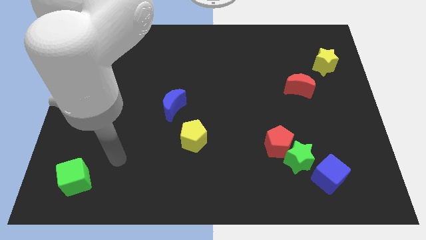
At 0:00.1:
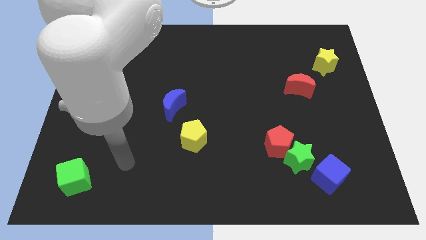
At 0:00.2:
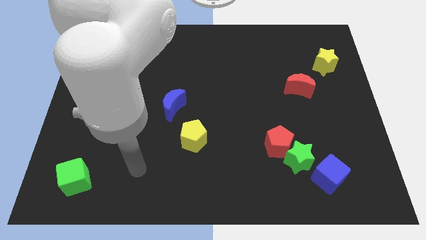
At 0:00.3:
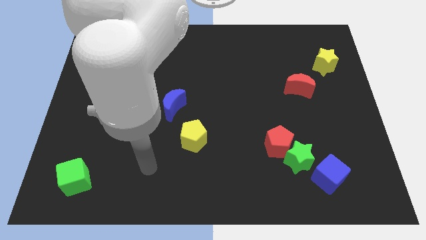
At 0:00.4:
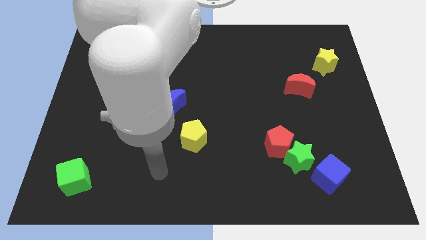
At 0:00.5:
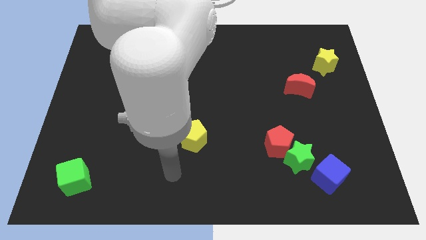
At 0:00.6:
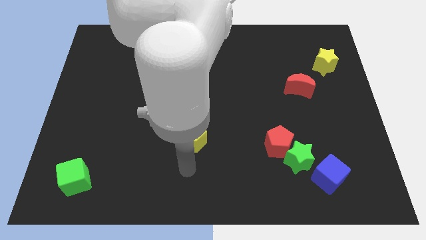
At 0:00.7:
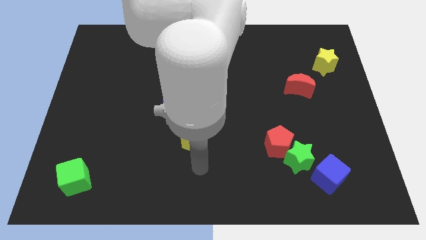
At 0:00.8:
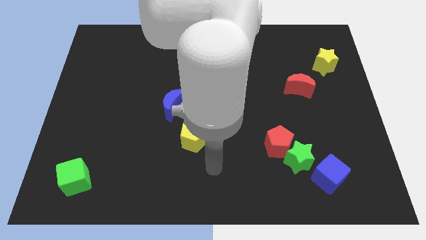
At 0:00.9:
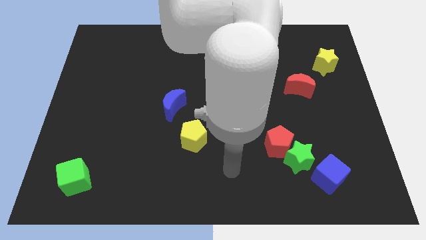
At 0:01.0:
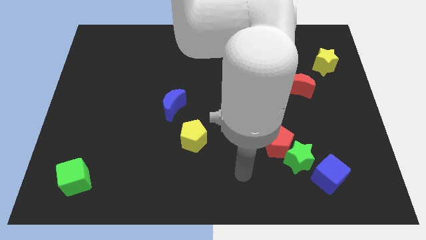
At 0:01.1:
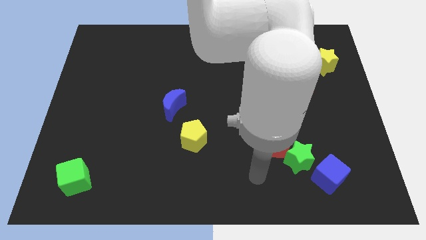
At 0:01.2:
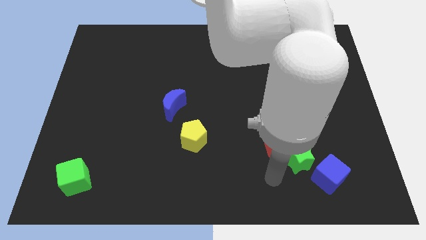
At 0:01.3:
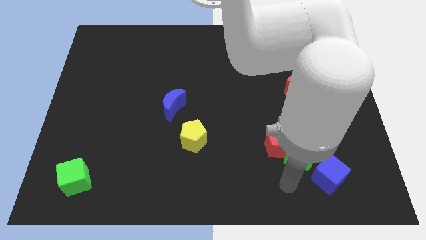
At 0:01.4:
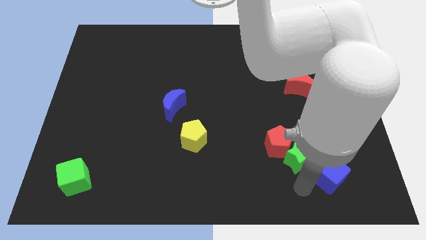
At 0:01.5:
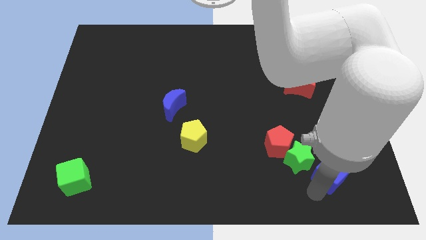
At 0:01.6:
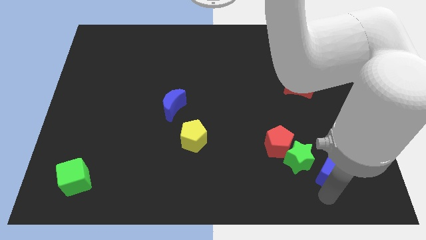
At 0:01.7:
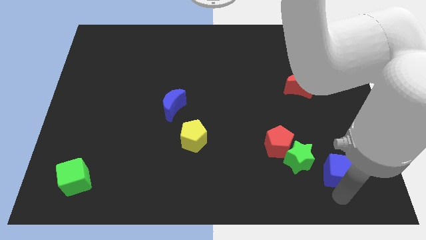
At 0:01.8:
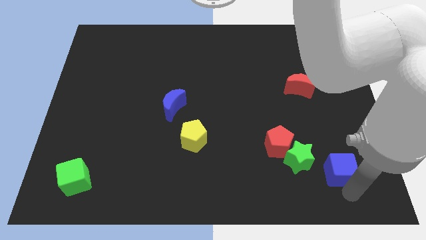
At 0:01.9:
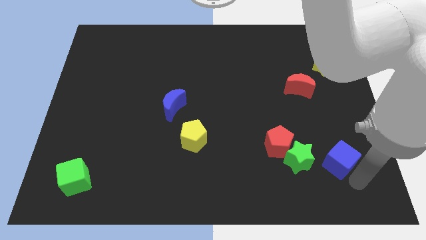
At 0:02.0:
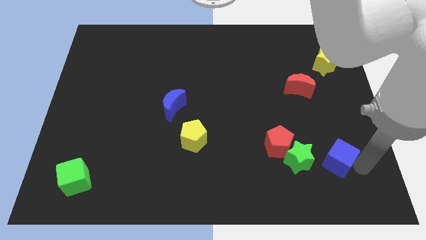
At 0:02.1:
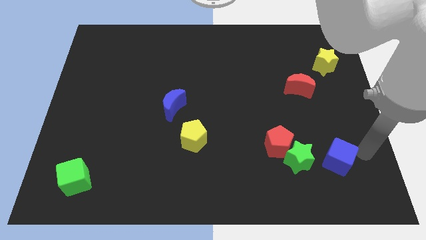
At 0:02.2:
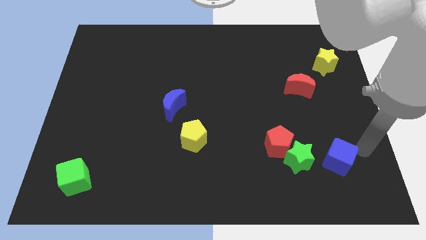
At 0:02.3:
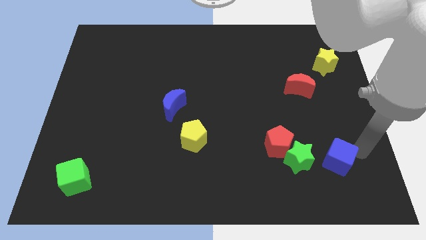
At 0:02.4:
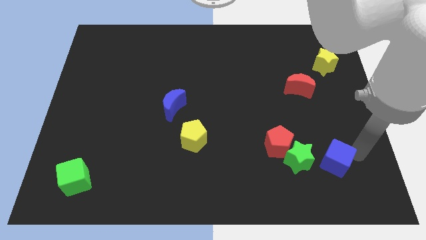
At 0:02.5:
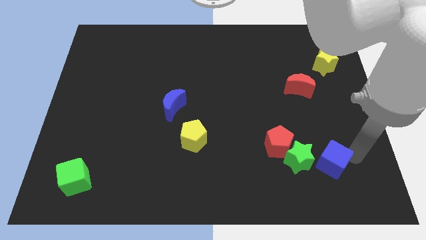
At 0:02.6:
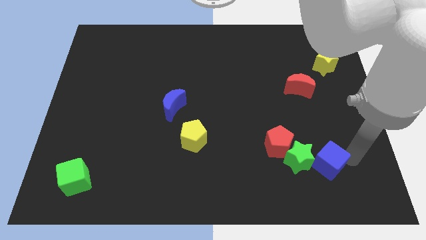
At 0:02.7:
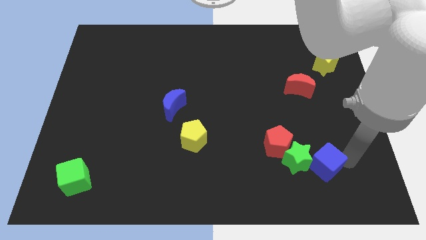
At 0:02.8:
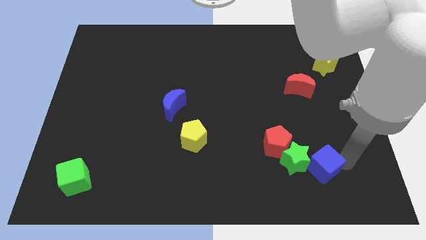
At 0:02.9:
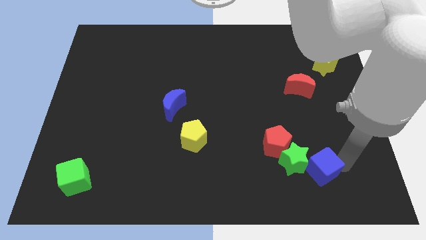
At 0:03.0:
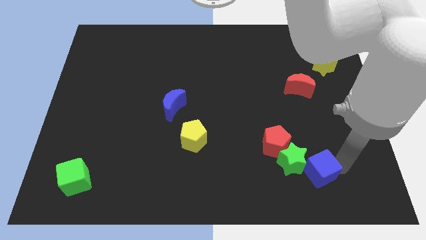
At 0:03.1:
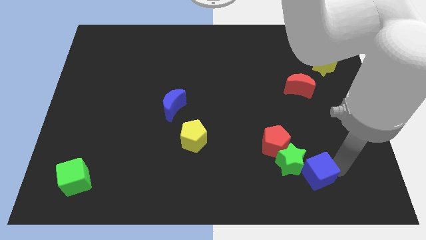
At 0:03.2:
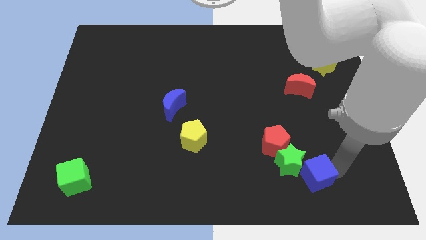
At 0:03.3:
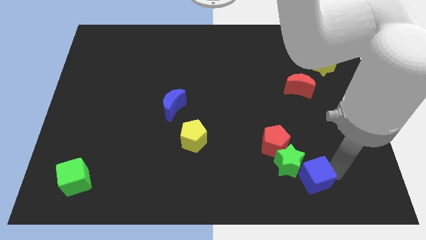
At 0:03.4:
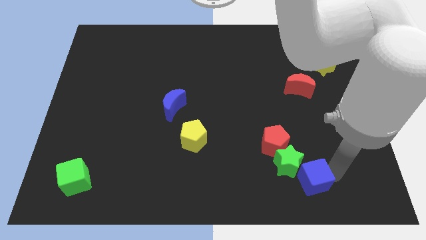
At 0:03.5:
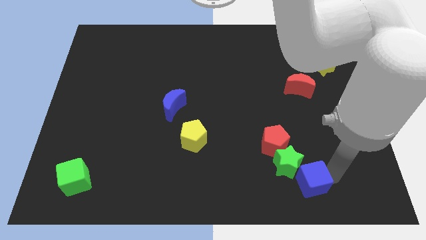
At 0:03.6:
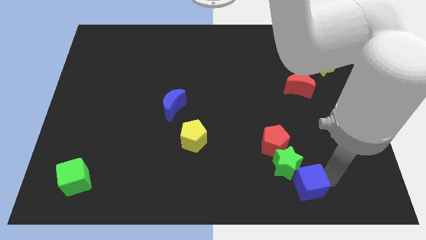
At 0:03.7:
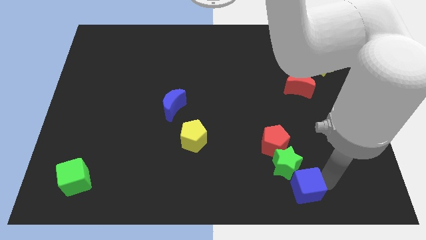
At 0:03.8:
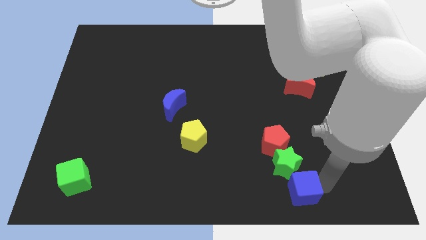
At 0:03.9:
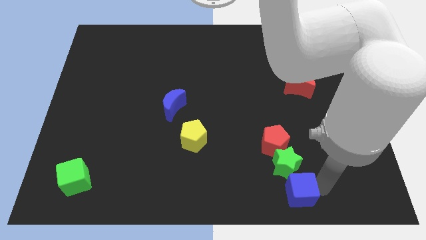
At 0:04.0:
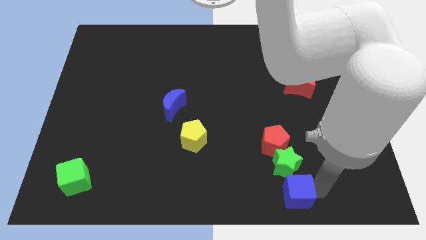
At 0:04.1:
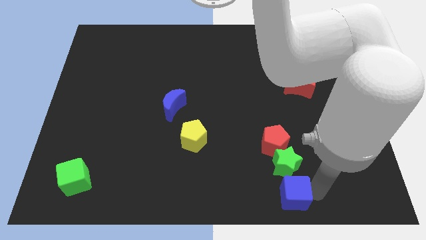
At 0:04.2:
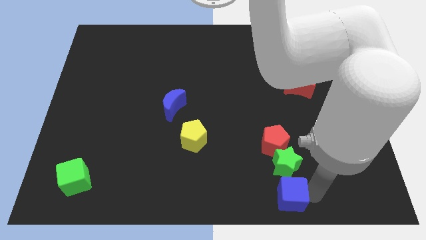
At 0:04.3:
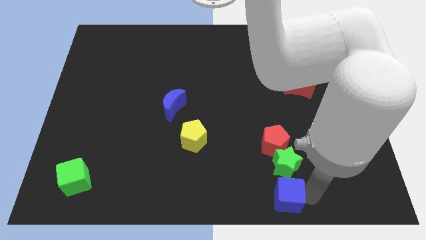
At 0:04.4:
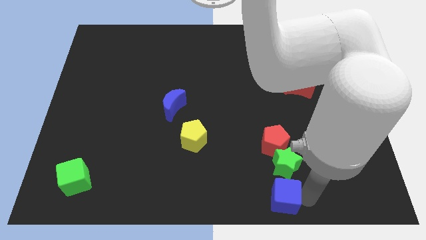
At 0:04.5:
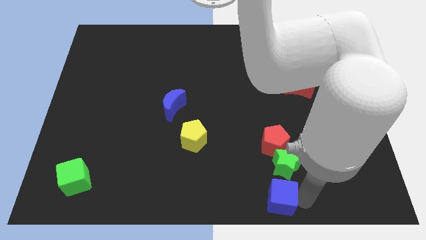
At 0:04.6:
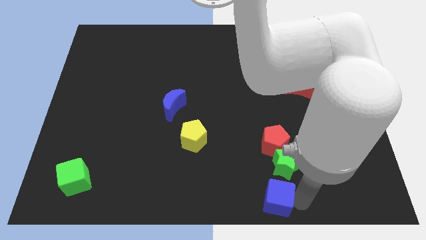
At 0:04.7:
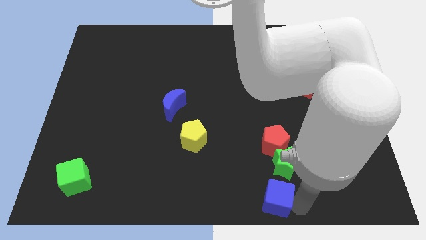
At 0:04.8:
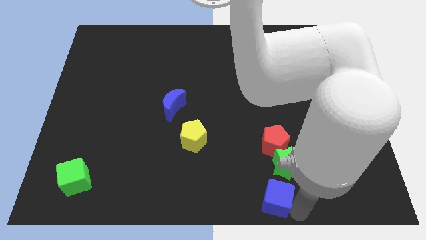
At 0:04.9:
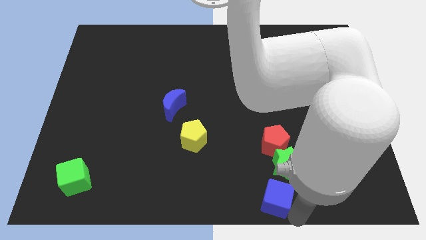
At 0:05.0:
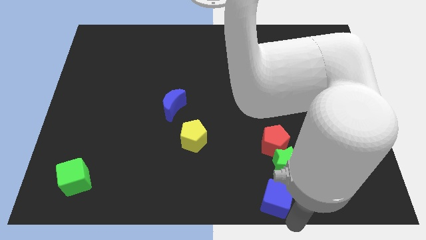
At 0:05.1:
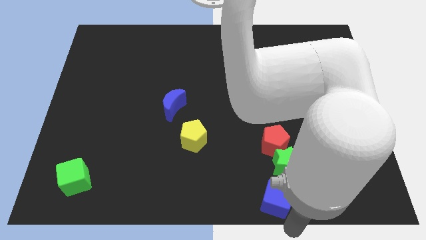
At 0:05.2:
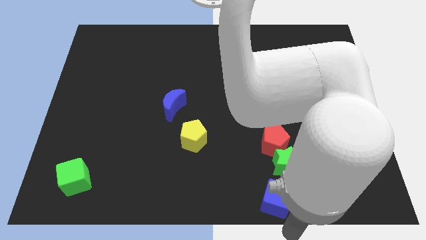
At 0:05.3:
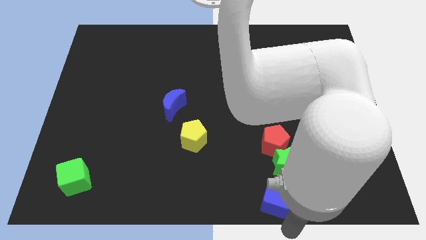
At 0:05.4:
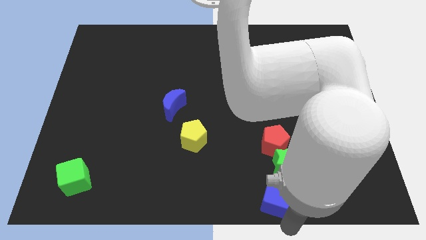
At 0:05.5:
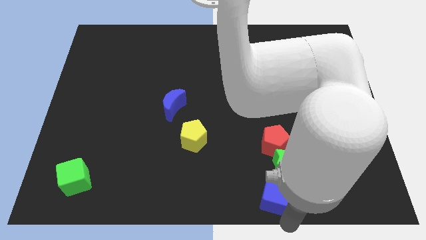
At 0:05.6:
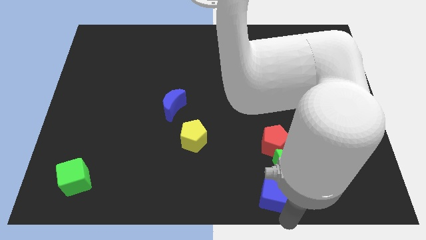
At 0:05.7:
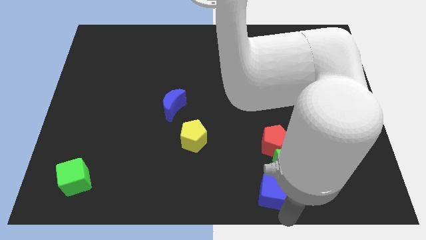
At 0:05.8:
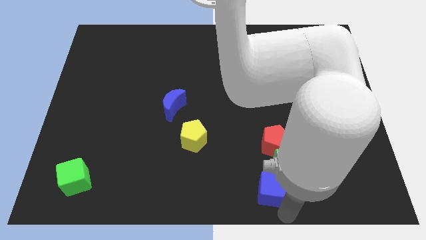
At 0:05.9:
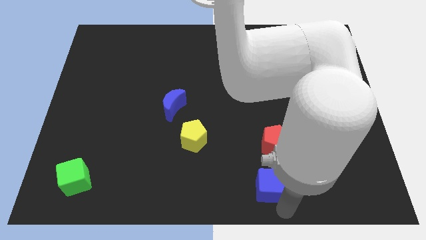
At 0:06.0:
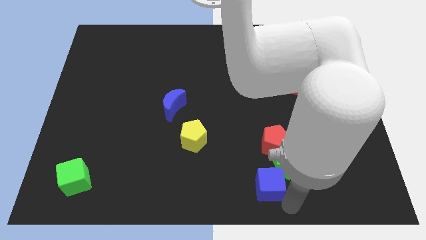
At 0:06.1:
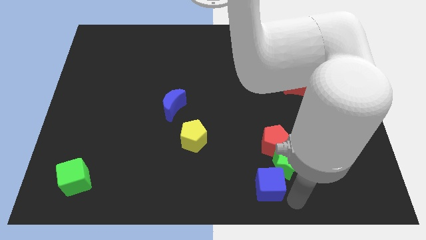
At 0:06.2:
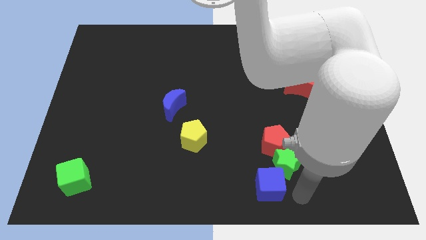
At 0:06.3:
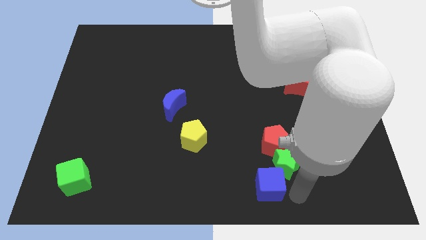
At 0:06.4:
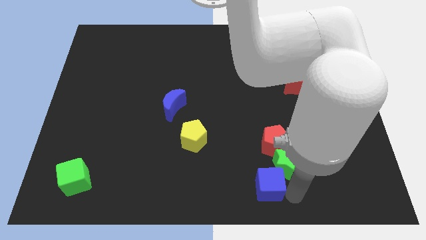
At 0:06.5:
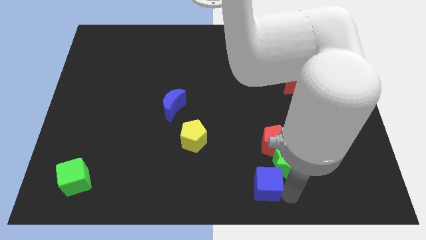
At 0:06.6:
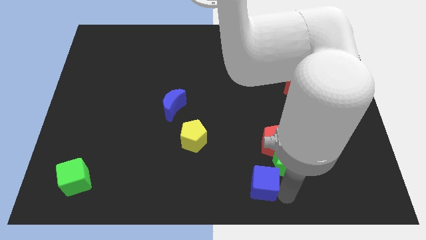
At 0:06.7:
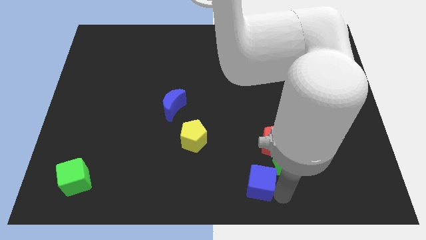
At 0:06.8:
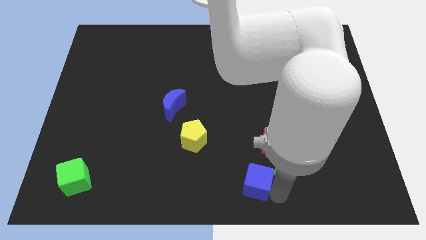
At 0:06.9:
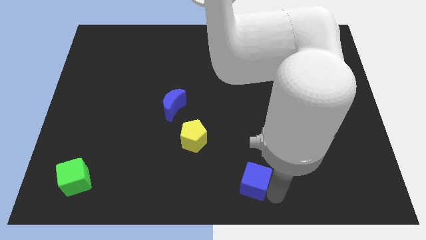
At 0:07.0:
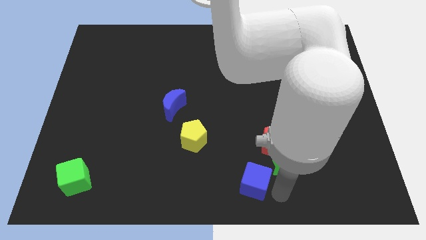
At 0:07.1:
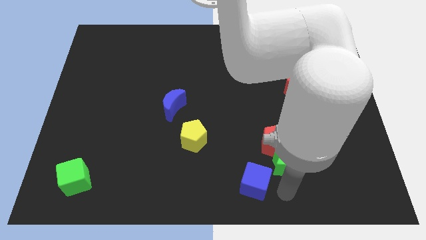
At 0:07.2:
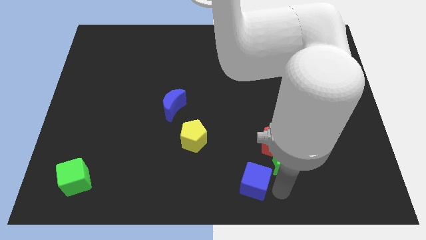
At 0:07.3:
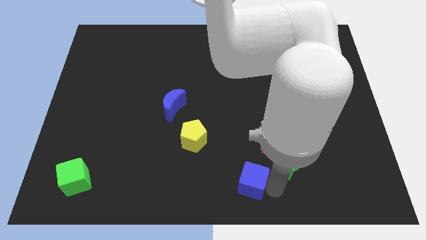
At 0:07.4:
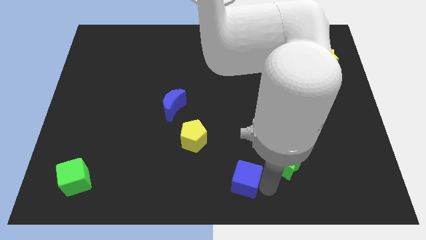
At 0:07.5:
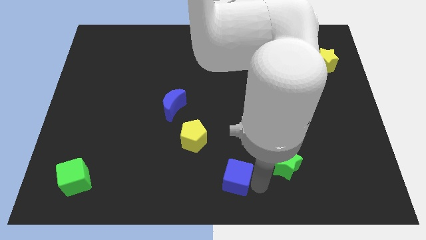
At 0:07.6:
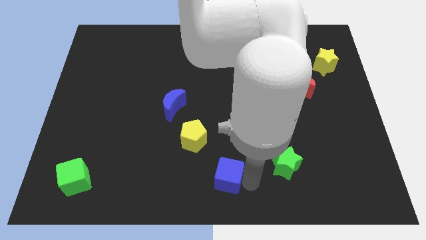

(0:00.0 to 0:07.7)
move the blue cube to the left

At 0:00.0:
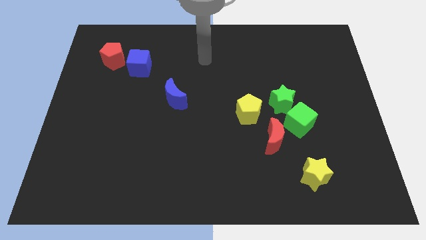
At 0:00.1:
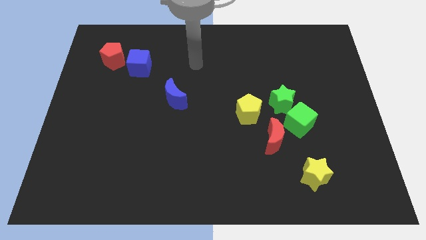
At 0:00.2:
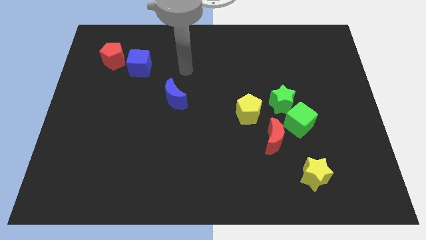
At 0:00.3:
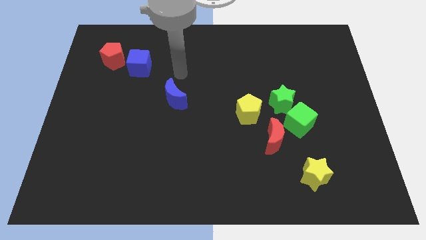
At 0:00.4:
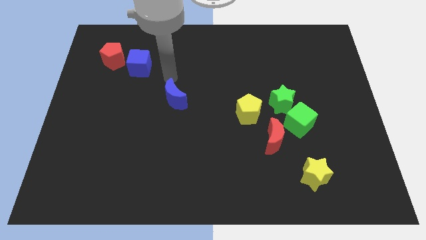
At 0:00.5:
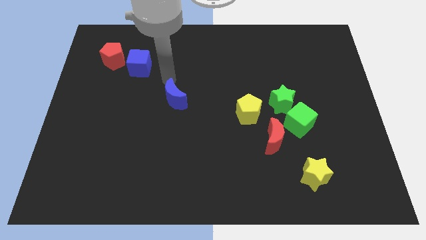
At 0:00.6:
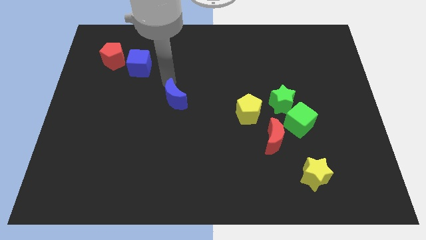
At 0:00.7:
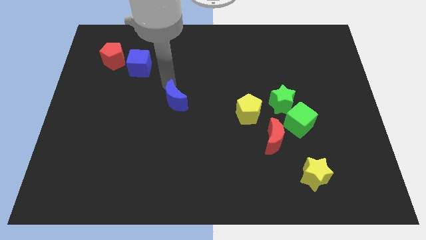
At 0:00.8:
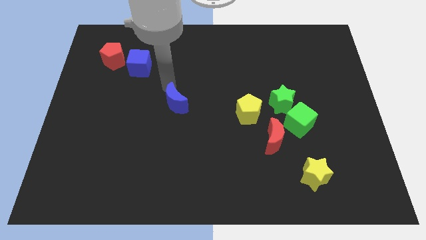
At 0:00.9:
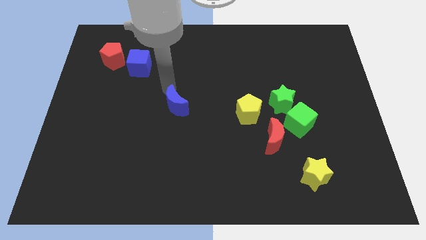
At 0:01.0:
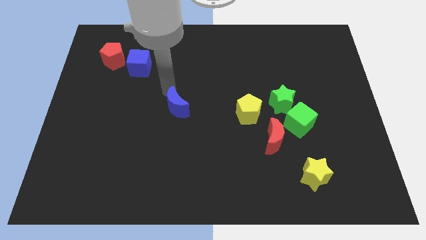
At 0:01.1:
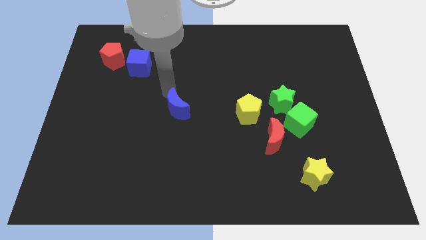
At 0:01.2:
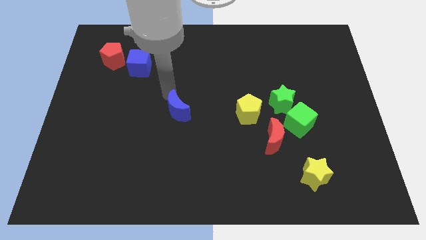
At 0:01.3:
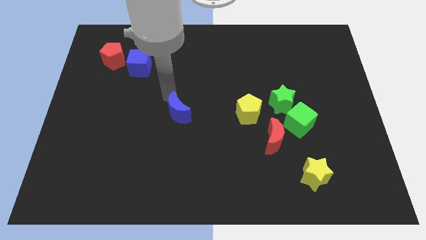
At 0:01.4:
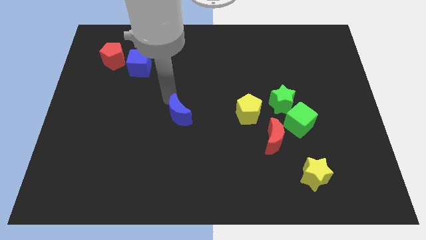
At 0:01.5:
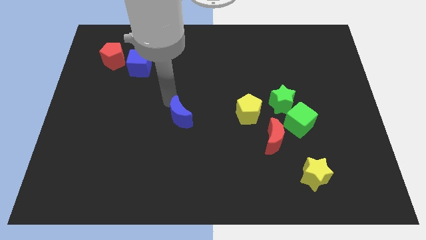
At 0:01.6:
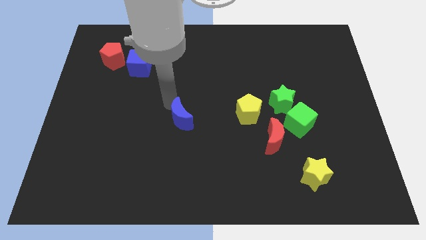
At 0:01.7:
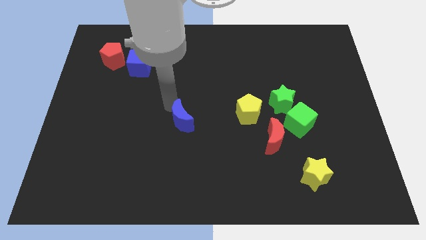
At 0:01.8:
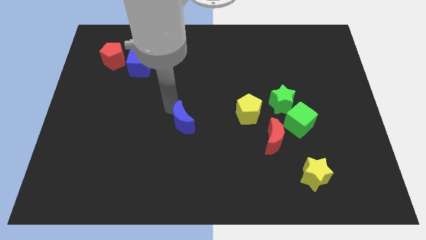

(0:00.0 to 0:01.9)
slide the blue moon down a bit
